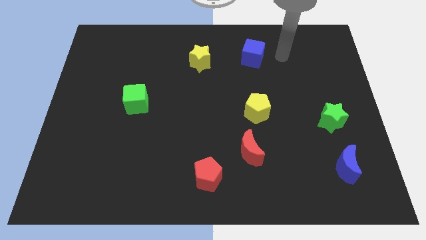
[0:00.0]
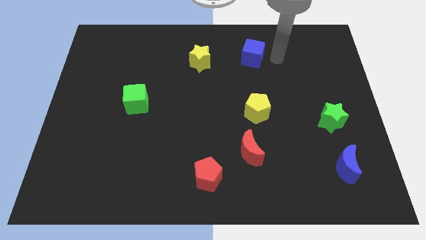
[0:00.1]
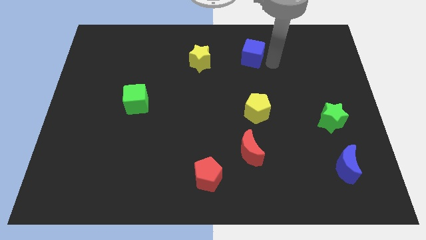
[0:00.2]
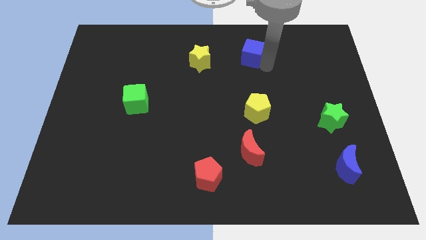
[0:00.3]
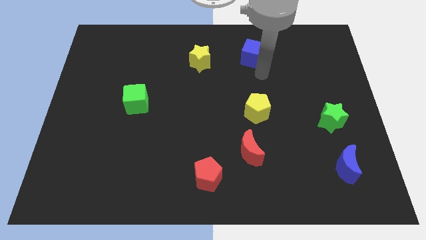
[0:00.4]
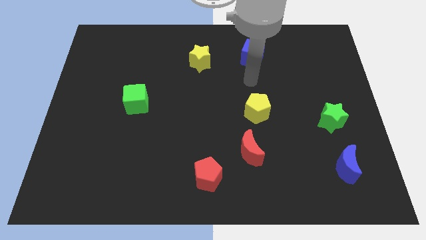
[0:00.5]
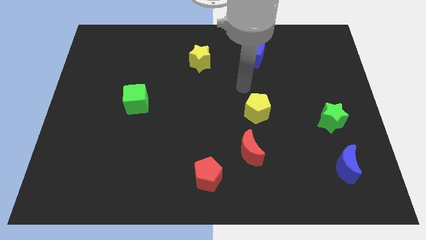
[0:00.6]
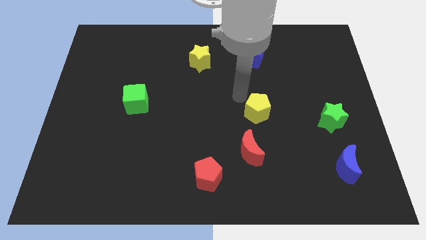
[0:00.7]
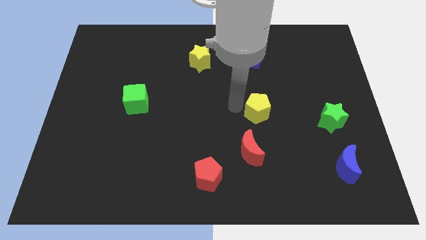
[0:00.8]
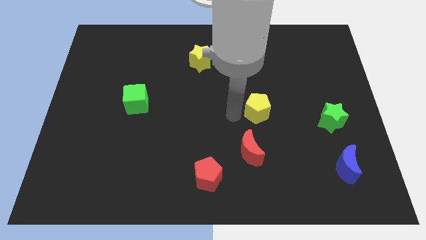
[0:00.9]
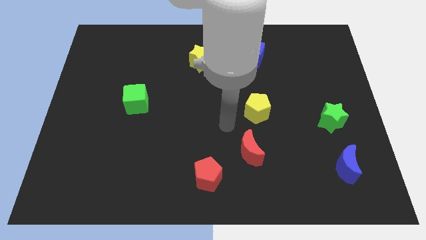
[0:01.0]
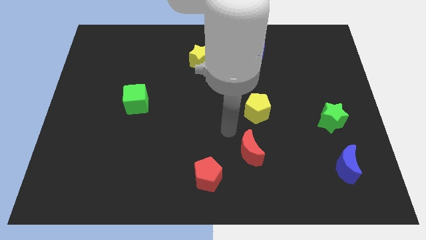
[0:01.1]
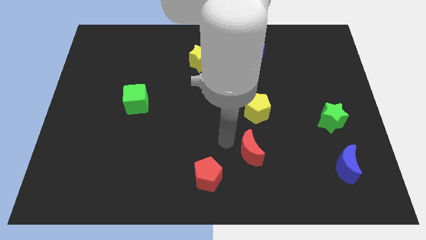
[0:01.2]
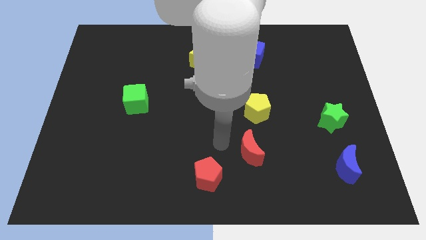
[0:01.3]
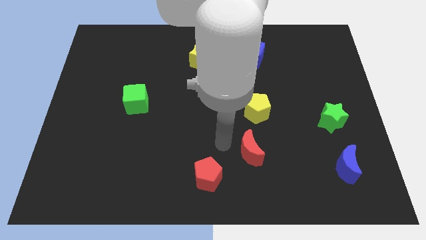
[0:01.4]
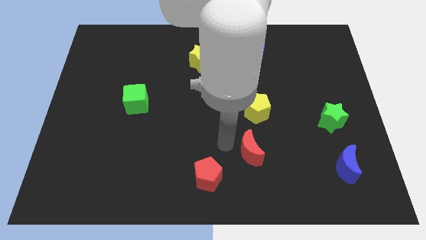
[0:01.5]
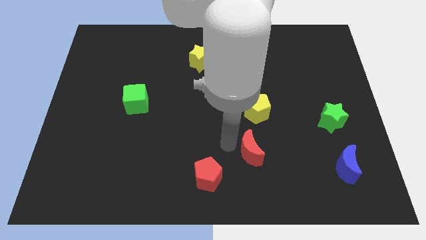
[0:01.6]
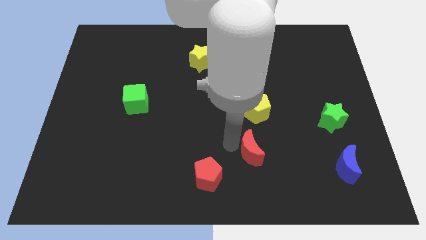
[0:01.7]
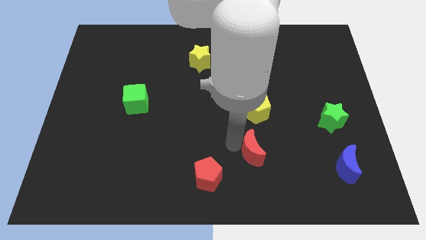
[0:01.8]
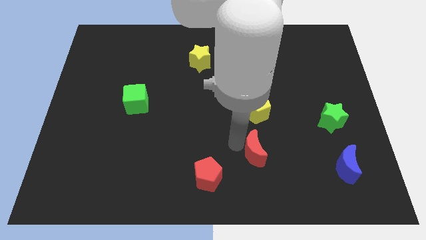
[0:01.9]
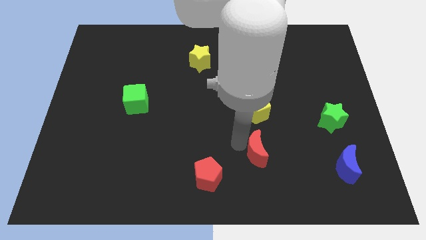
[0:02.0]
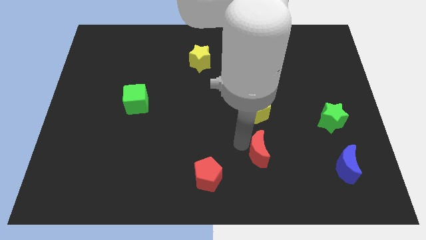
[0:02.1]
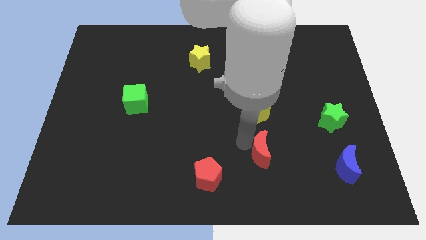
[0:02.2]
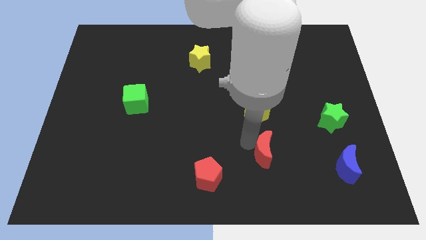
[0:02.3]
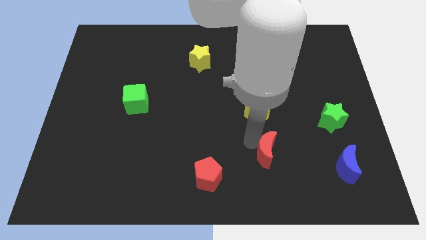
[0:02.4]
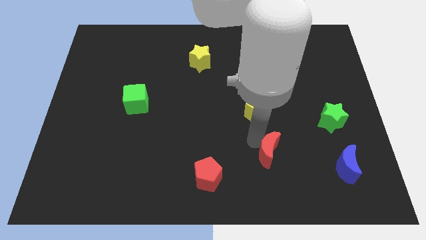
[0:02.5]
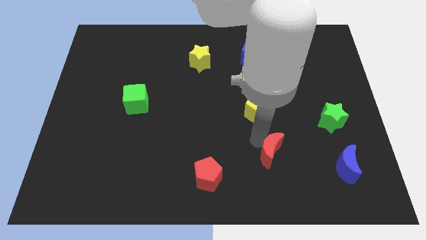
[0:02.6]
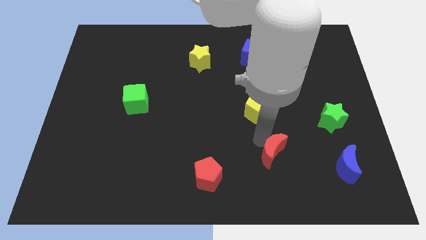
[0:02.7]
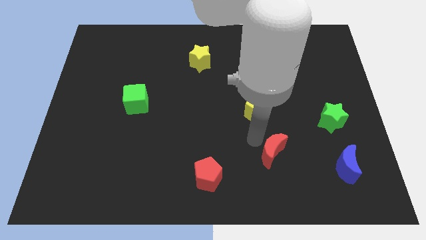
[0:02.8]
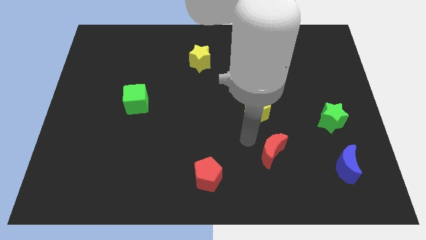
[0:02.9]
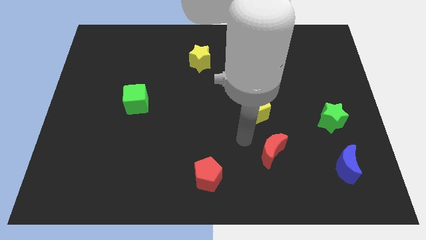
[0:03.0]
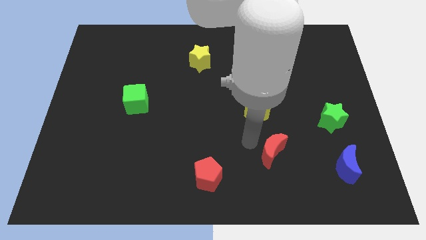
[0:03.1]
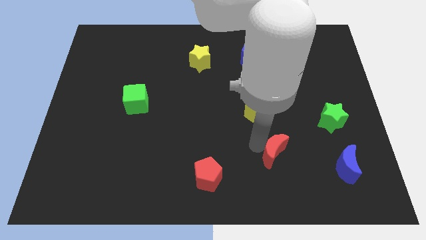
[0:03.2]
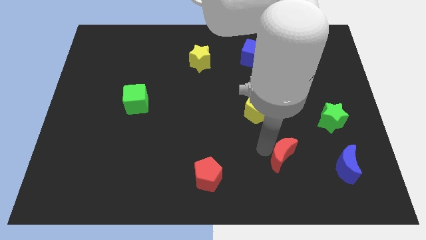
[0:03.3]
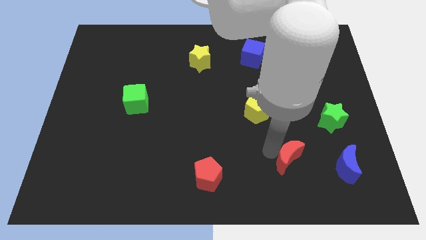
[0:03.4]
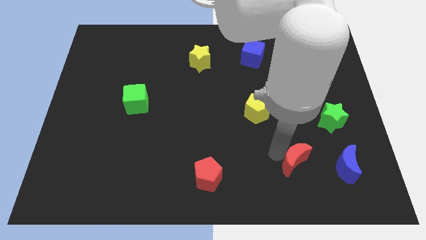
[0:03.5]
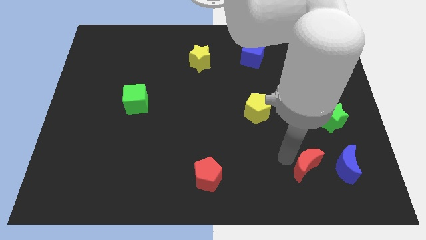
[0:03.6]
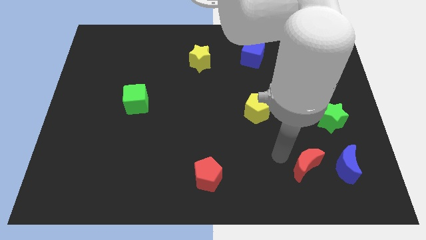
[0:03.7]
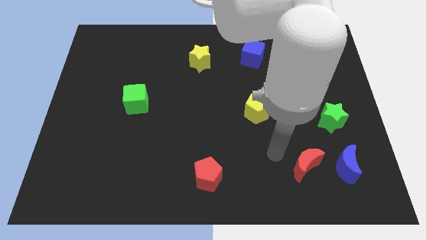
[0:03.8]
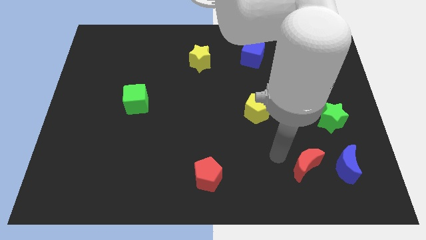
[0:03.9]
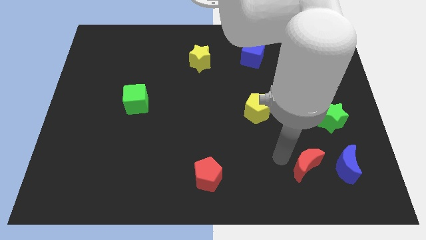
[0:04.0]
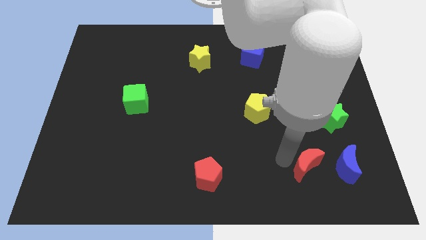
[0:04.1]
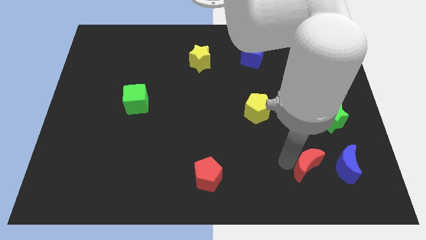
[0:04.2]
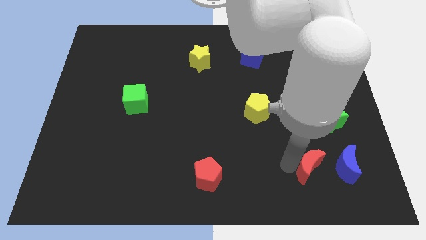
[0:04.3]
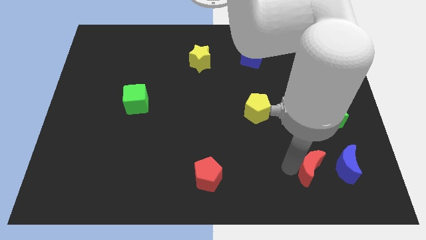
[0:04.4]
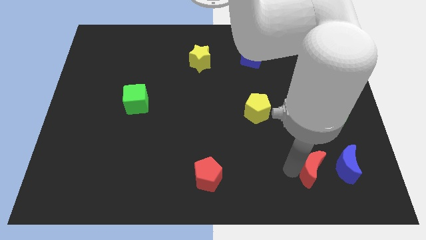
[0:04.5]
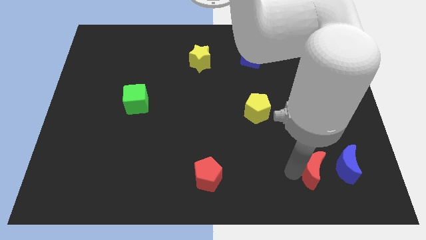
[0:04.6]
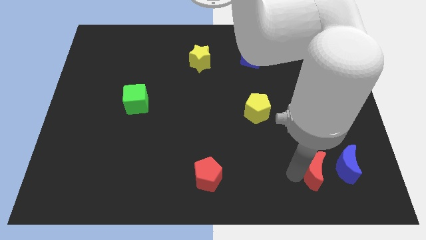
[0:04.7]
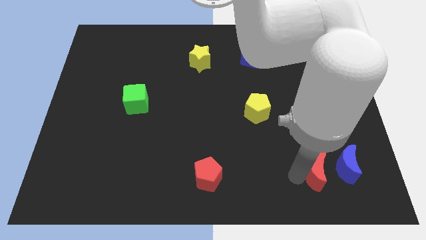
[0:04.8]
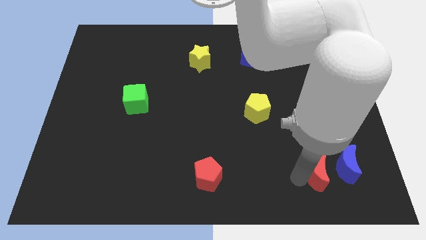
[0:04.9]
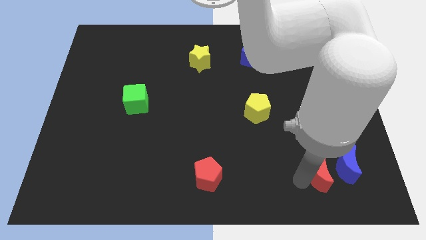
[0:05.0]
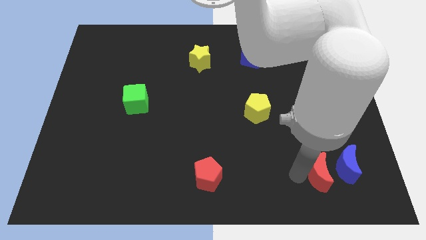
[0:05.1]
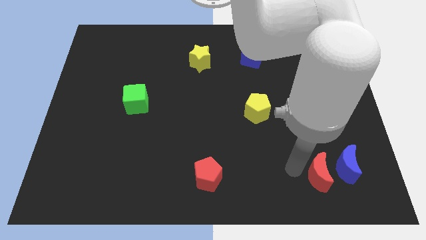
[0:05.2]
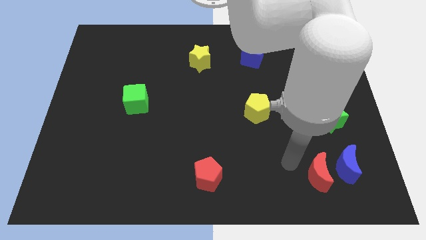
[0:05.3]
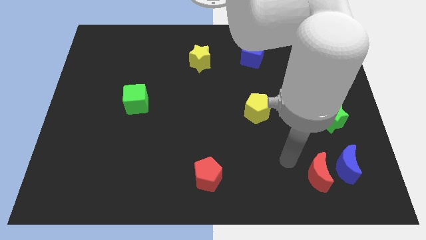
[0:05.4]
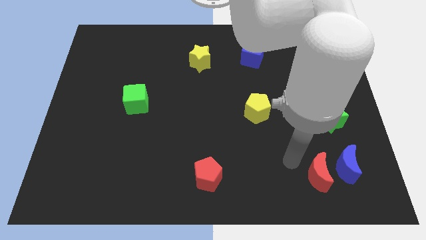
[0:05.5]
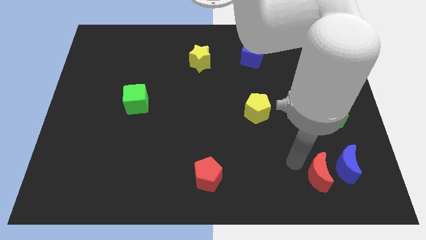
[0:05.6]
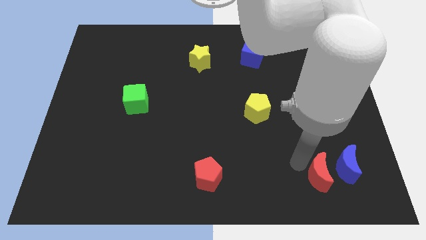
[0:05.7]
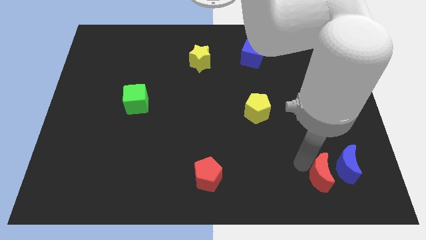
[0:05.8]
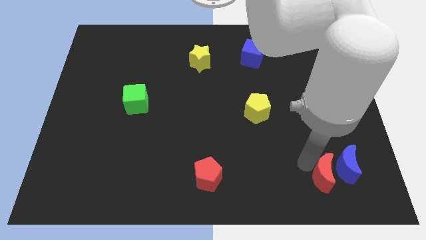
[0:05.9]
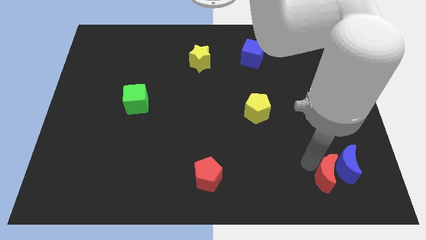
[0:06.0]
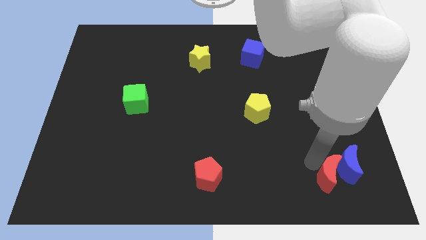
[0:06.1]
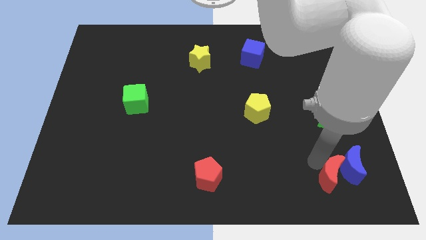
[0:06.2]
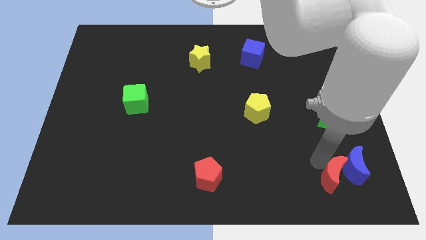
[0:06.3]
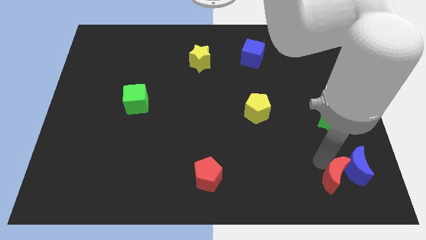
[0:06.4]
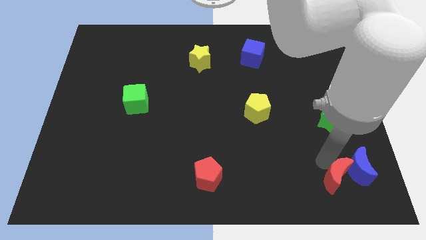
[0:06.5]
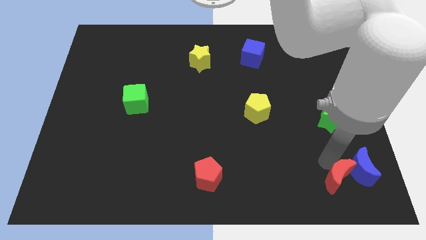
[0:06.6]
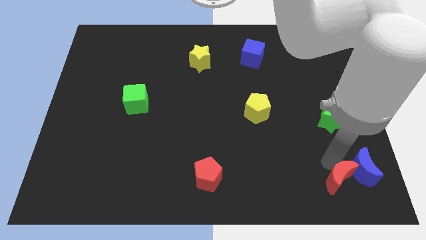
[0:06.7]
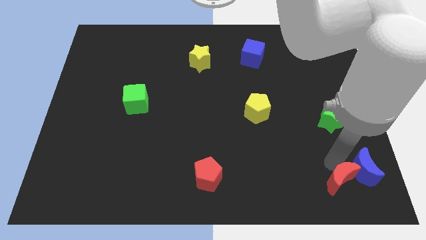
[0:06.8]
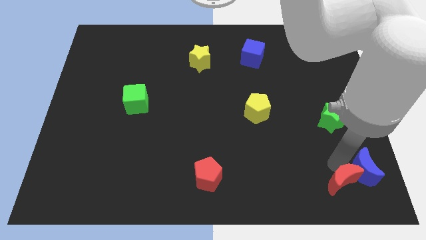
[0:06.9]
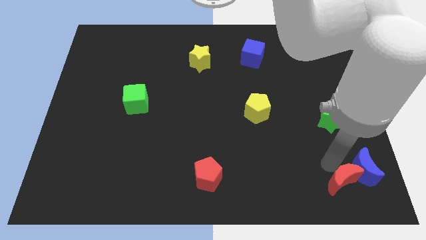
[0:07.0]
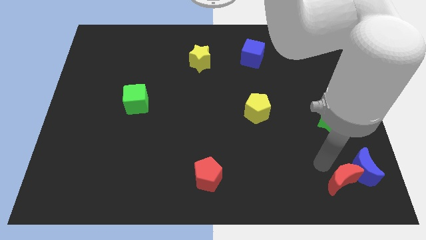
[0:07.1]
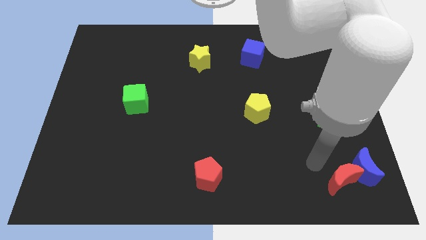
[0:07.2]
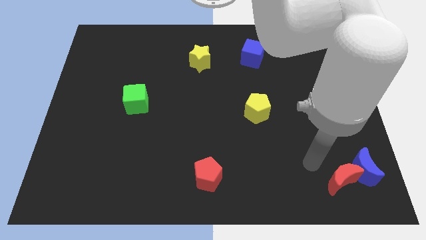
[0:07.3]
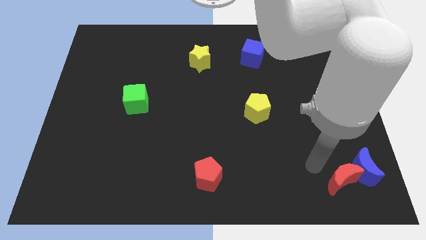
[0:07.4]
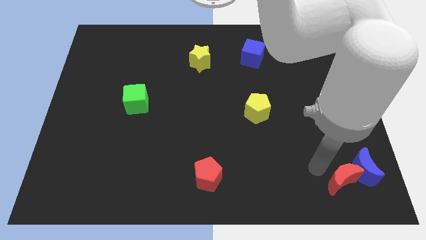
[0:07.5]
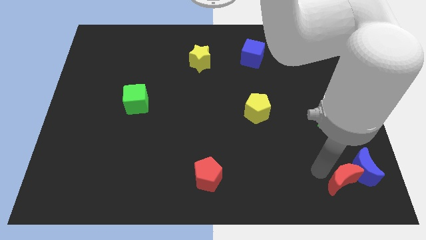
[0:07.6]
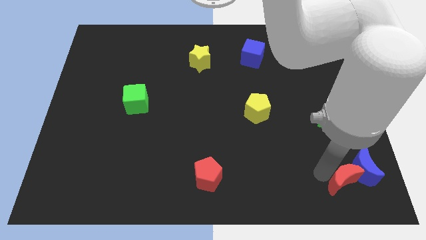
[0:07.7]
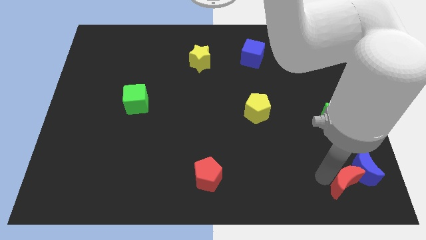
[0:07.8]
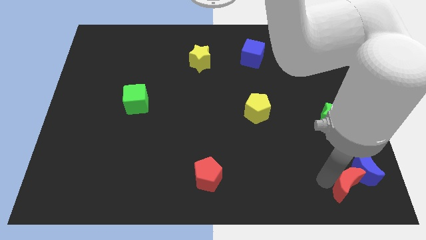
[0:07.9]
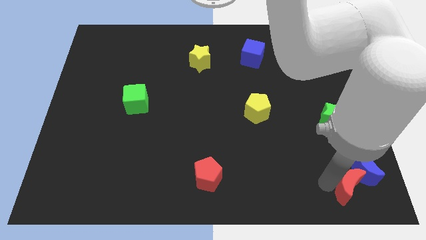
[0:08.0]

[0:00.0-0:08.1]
move the red moon to the bottom right corner
